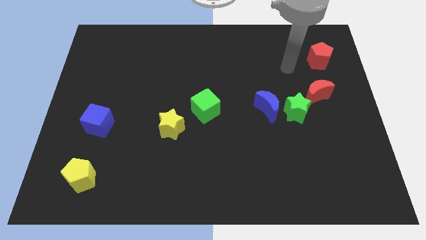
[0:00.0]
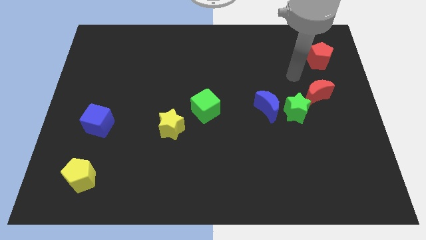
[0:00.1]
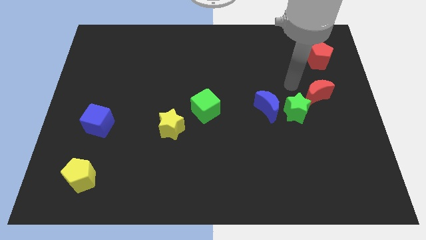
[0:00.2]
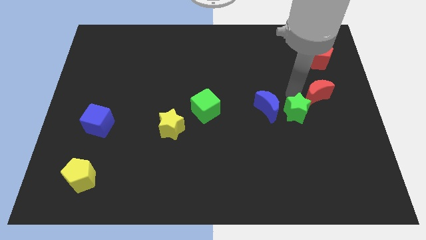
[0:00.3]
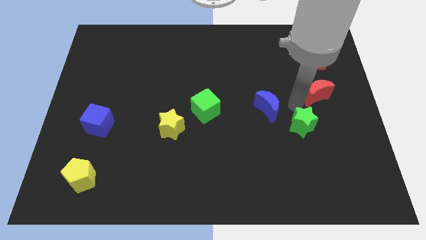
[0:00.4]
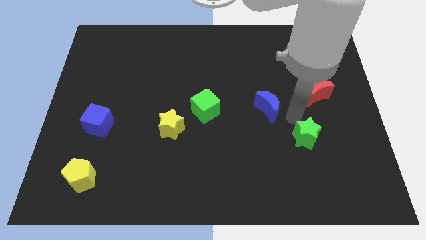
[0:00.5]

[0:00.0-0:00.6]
pull the blue moon apart from the green star

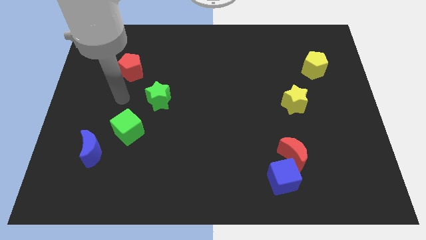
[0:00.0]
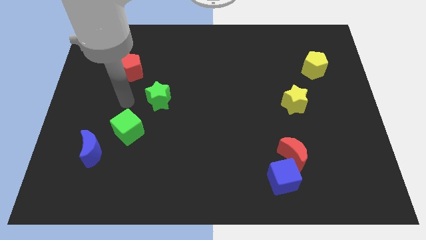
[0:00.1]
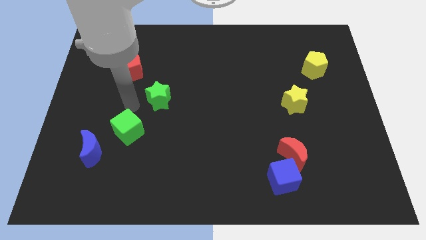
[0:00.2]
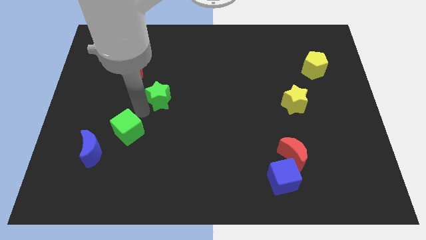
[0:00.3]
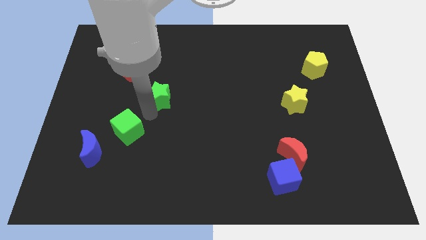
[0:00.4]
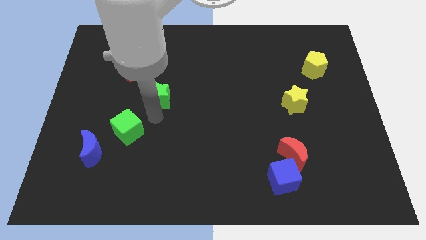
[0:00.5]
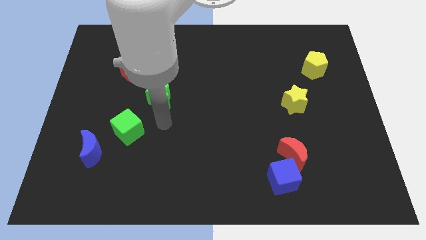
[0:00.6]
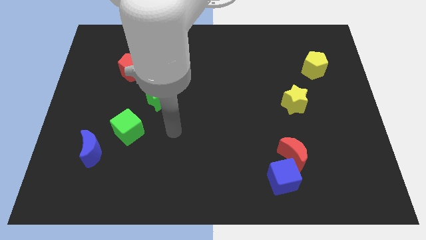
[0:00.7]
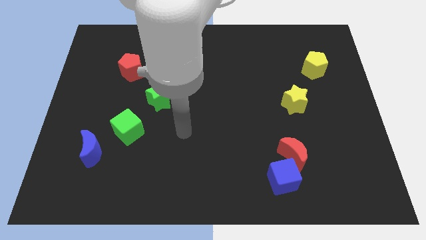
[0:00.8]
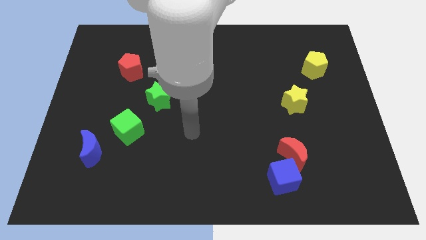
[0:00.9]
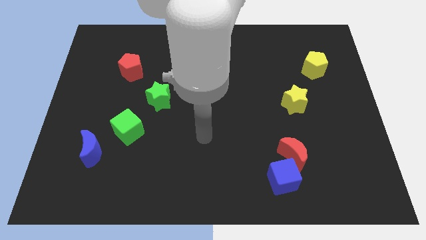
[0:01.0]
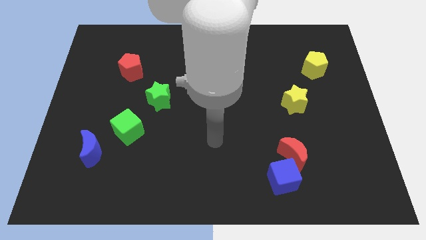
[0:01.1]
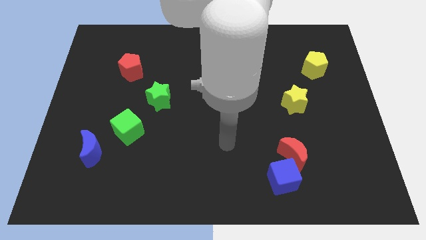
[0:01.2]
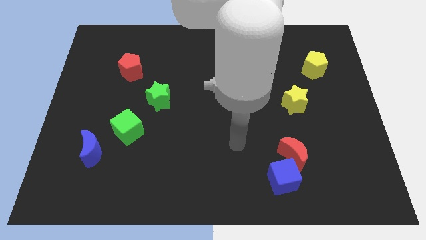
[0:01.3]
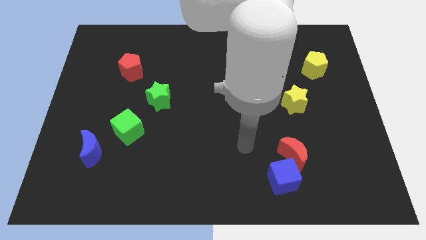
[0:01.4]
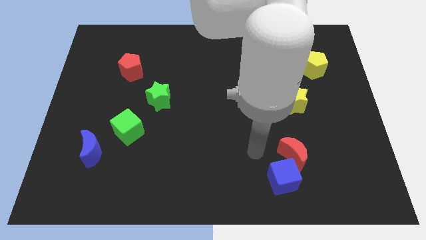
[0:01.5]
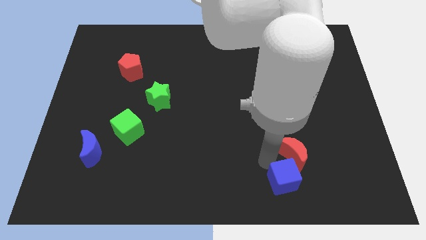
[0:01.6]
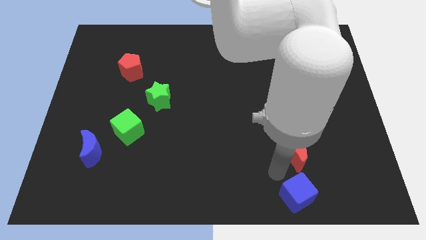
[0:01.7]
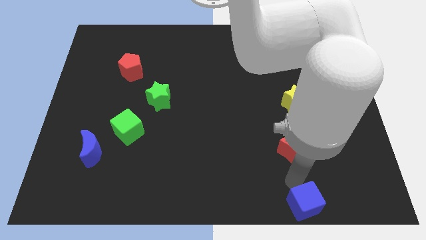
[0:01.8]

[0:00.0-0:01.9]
move the red moon away from the blue cube

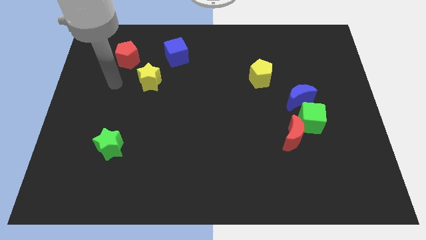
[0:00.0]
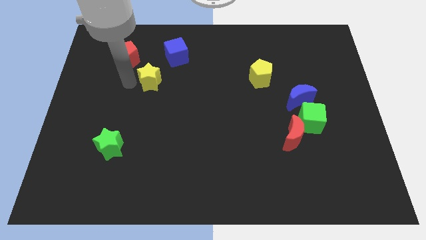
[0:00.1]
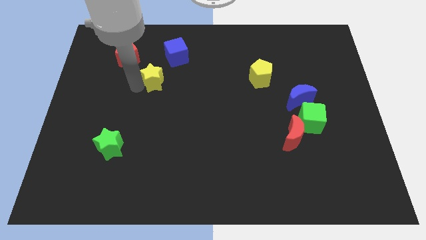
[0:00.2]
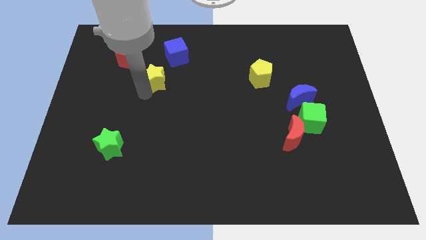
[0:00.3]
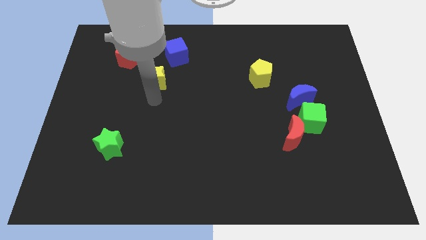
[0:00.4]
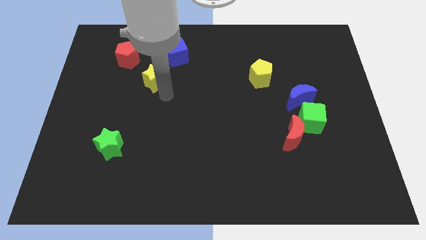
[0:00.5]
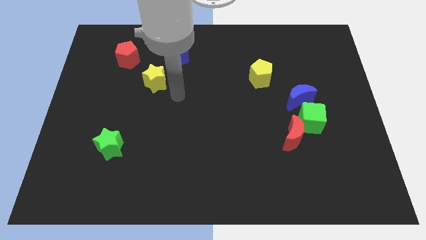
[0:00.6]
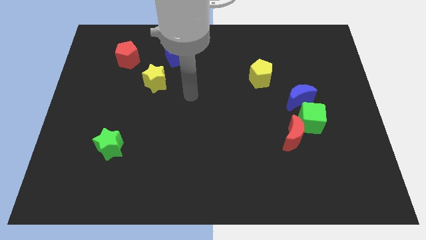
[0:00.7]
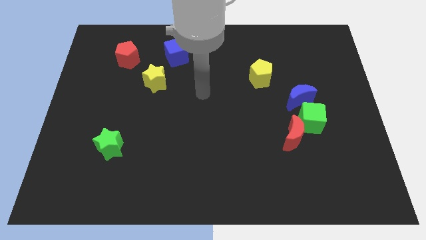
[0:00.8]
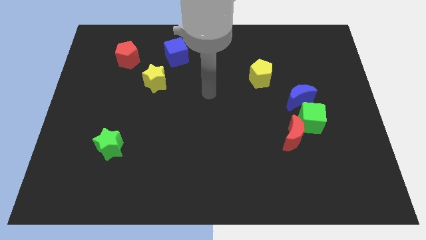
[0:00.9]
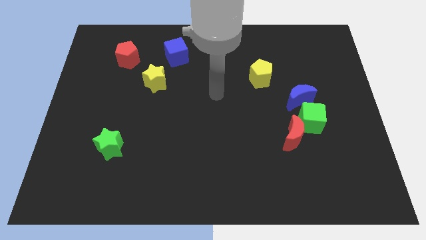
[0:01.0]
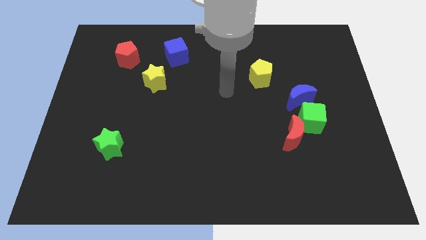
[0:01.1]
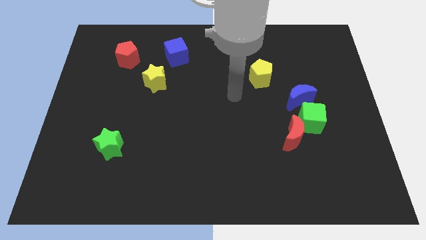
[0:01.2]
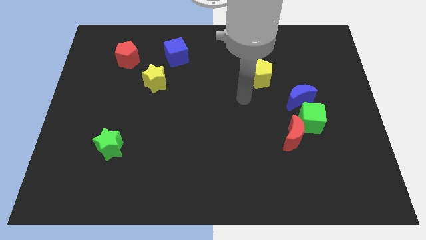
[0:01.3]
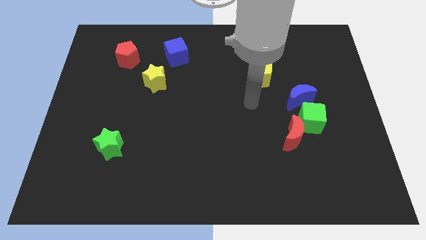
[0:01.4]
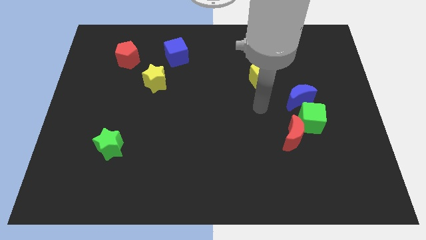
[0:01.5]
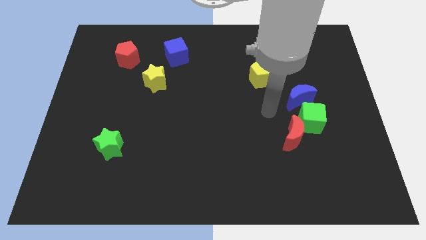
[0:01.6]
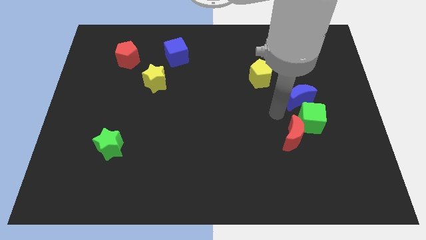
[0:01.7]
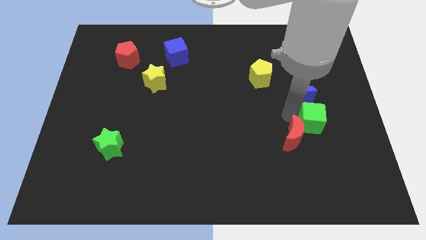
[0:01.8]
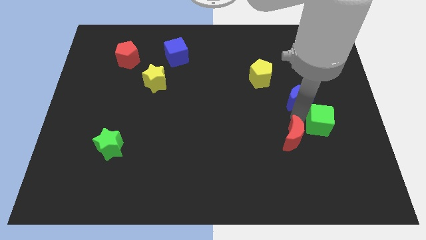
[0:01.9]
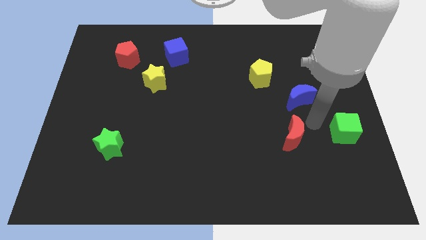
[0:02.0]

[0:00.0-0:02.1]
separate the red moon from the green cube

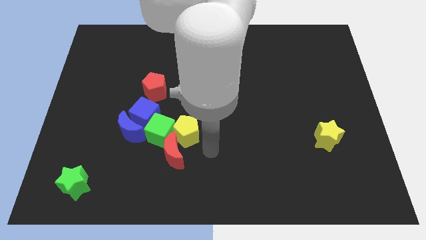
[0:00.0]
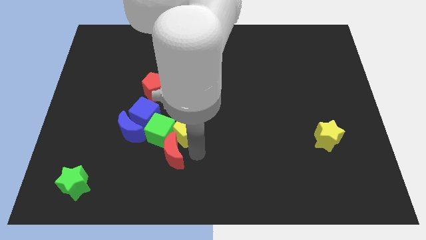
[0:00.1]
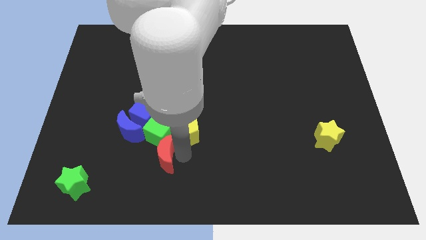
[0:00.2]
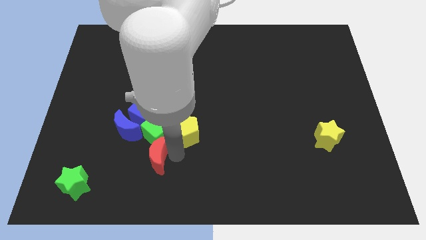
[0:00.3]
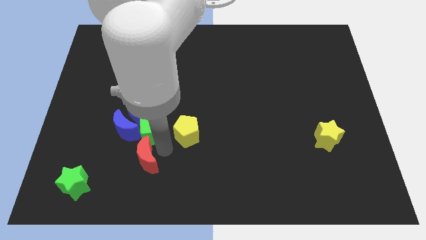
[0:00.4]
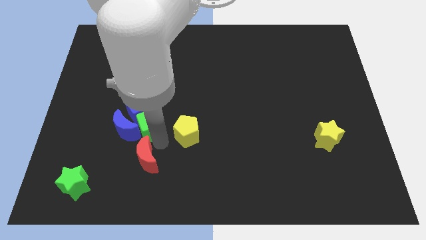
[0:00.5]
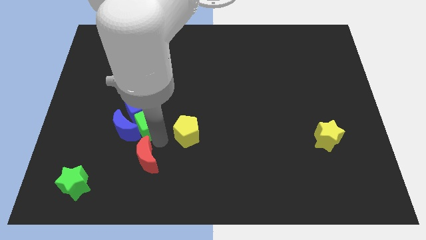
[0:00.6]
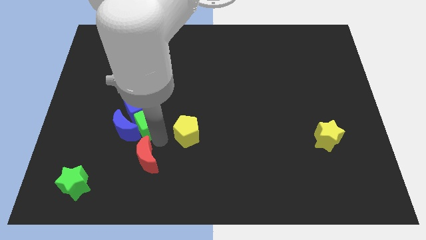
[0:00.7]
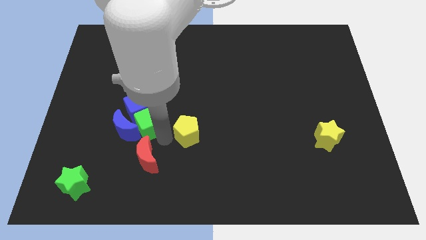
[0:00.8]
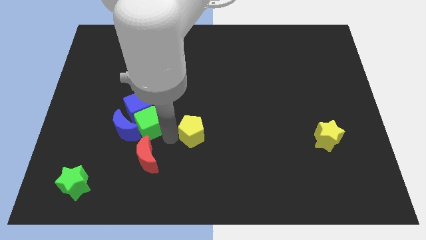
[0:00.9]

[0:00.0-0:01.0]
pull the yellow pentagon apart from the green cube and red moon

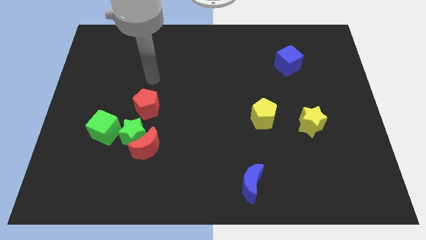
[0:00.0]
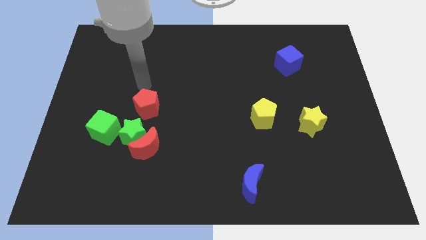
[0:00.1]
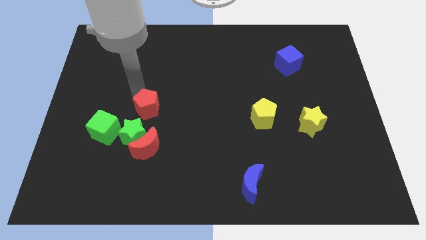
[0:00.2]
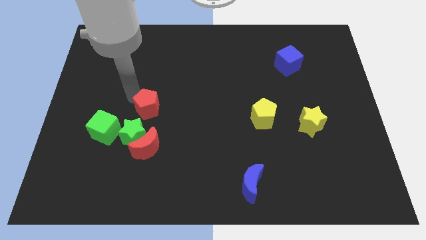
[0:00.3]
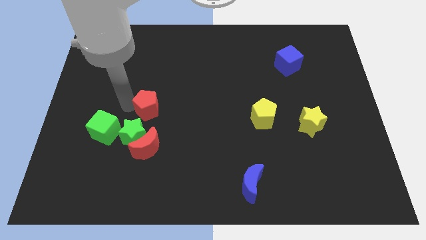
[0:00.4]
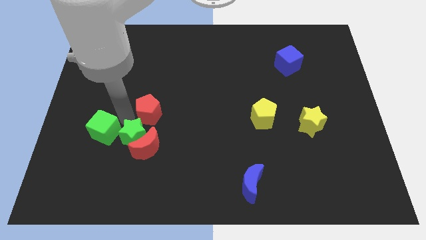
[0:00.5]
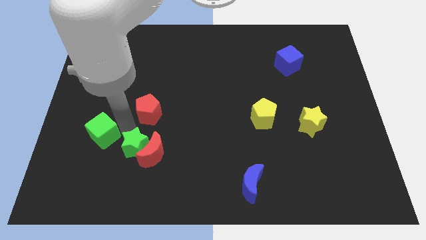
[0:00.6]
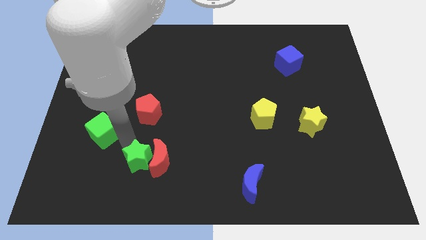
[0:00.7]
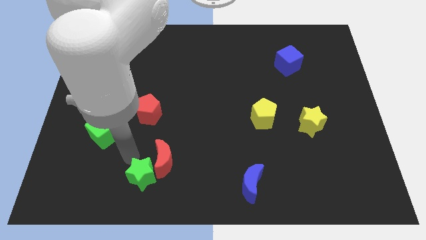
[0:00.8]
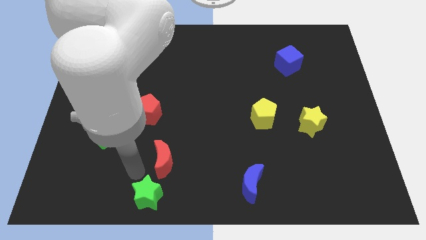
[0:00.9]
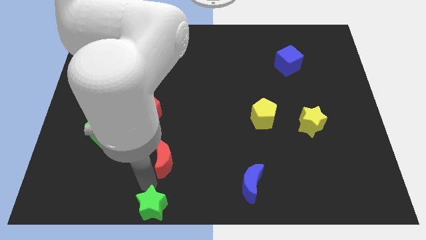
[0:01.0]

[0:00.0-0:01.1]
move the red moon away from the green star

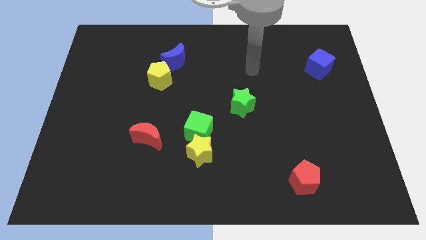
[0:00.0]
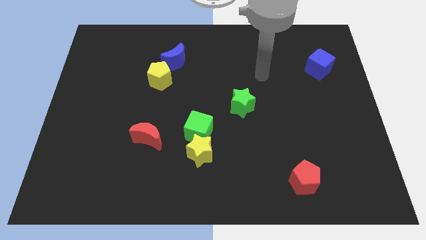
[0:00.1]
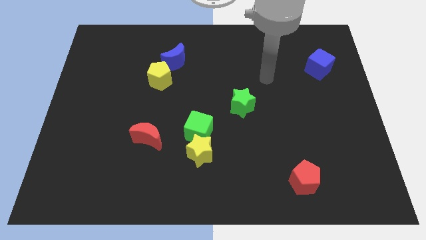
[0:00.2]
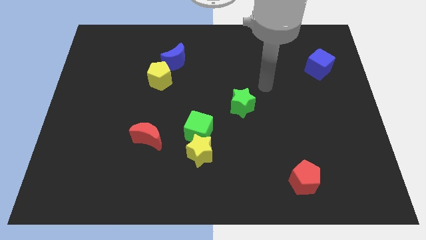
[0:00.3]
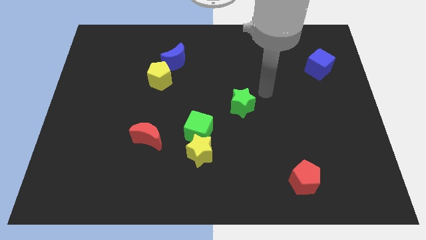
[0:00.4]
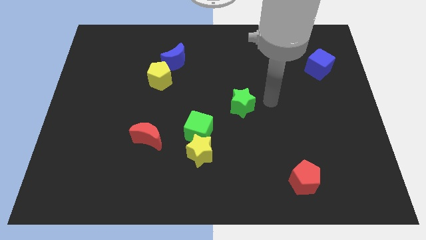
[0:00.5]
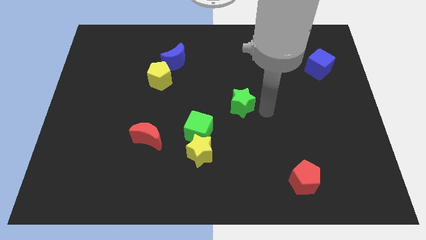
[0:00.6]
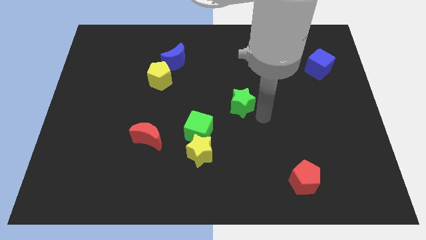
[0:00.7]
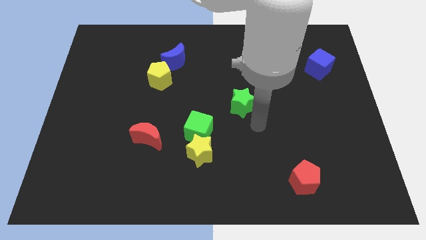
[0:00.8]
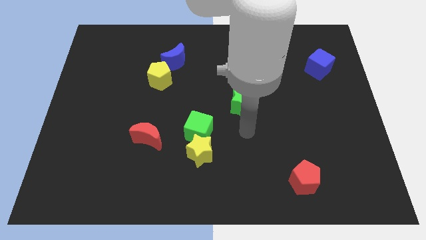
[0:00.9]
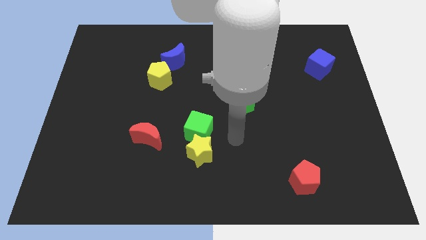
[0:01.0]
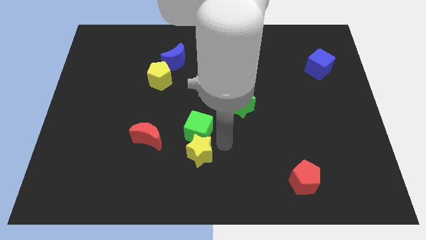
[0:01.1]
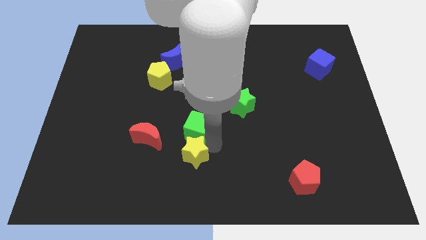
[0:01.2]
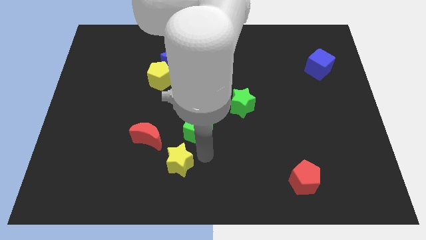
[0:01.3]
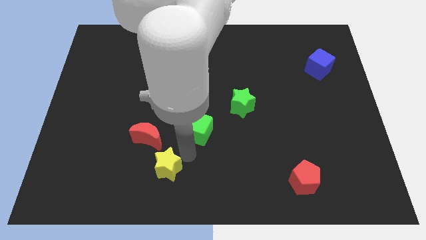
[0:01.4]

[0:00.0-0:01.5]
pull the green cube apart from the yellow star

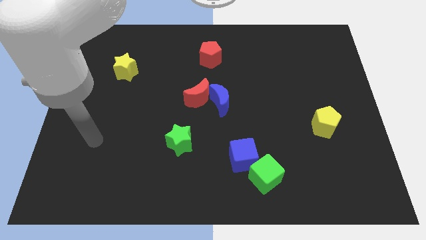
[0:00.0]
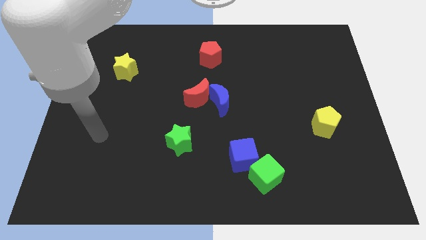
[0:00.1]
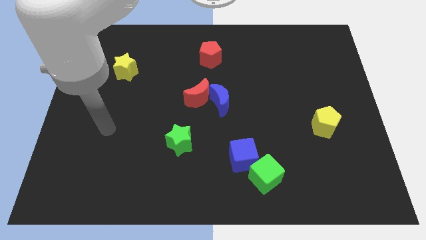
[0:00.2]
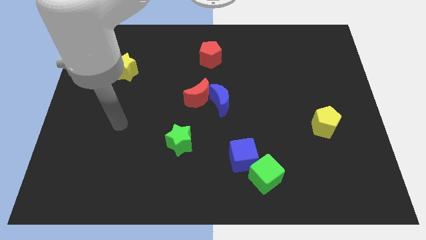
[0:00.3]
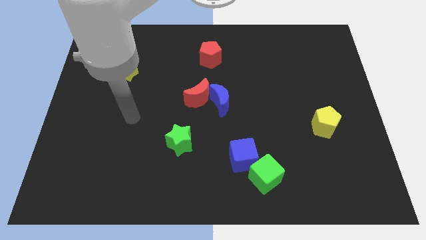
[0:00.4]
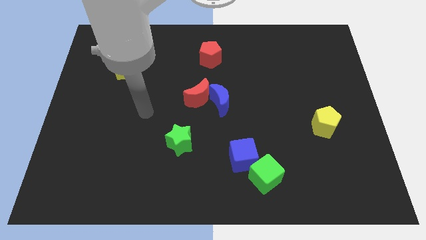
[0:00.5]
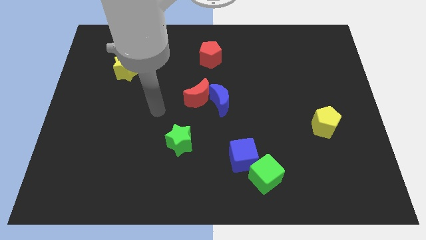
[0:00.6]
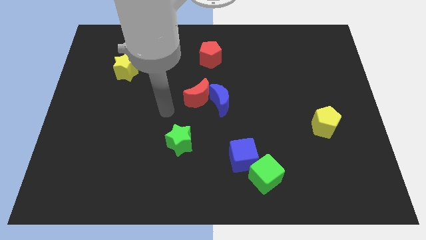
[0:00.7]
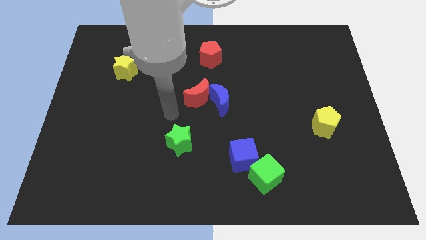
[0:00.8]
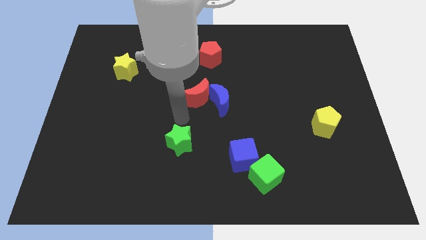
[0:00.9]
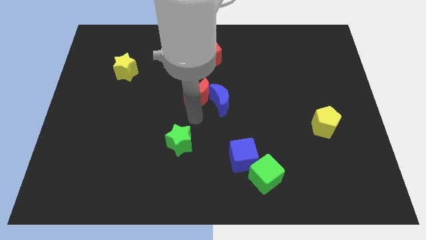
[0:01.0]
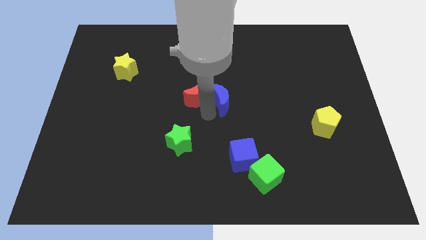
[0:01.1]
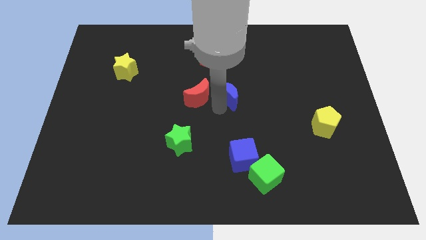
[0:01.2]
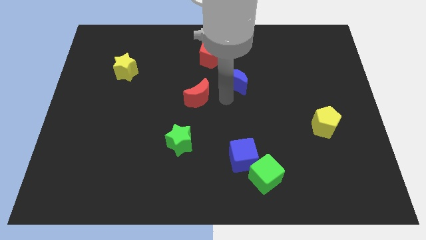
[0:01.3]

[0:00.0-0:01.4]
separate the red moon from the blue moon
